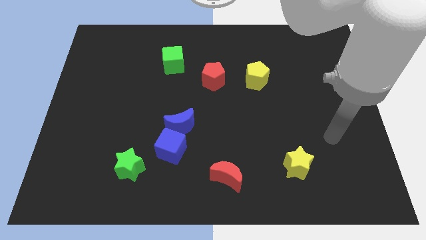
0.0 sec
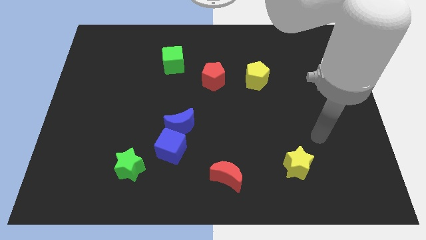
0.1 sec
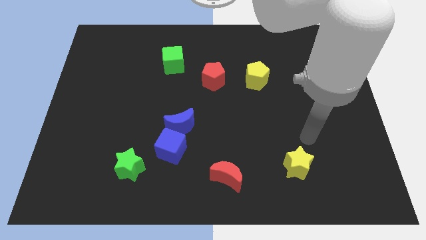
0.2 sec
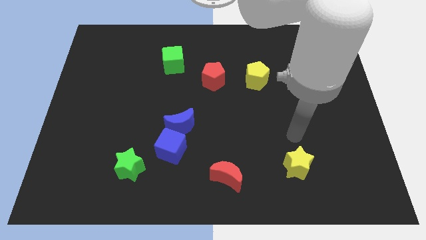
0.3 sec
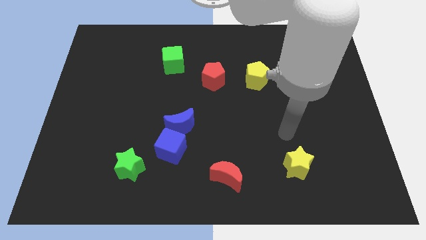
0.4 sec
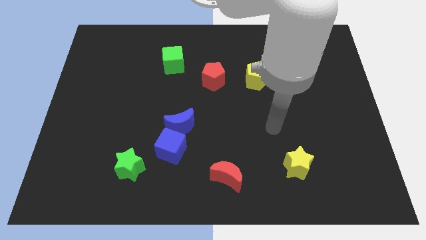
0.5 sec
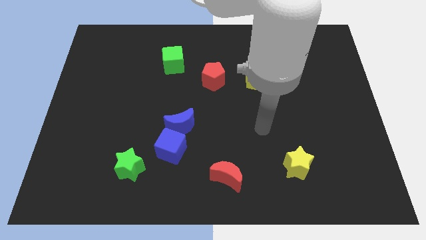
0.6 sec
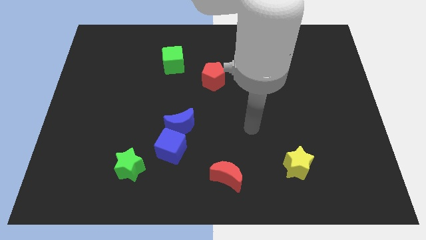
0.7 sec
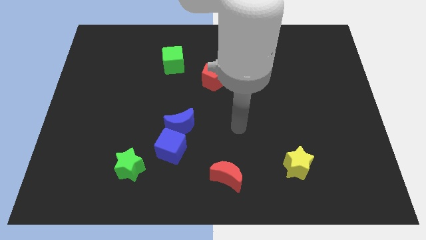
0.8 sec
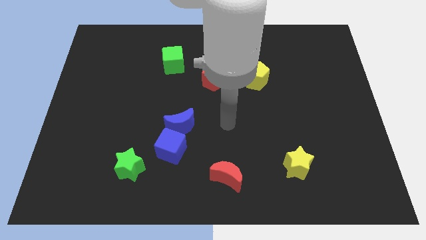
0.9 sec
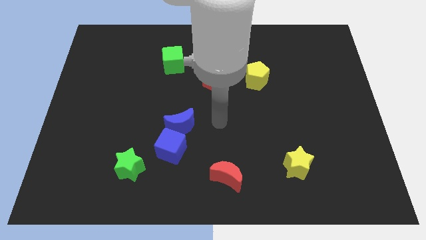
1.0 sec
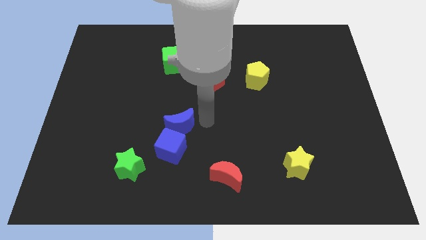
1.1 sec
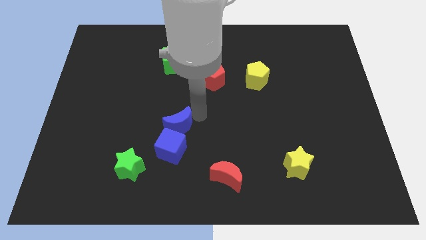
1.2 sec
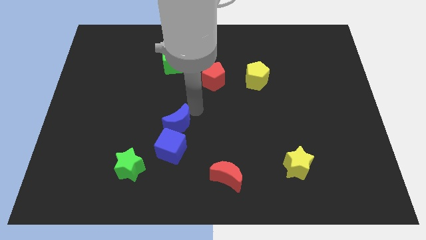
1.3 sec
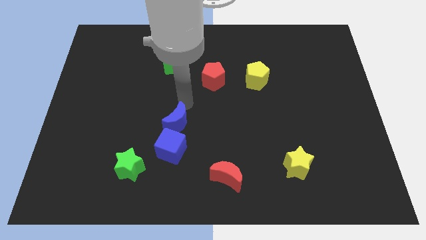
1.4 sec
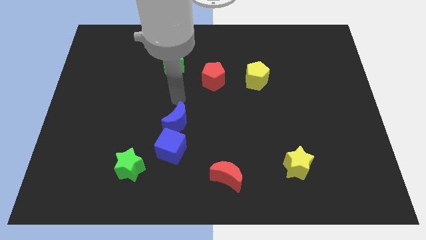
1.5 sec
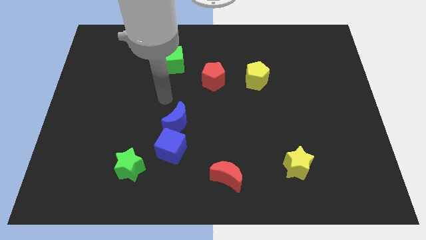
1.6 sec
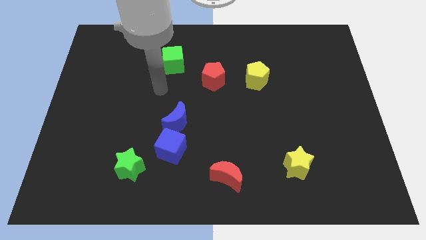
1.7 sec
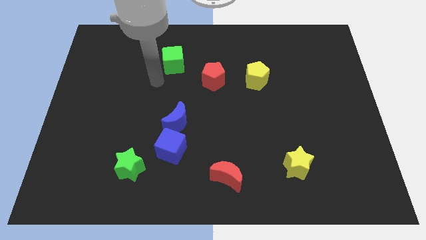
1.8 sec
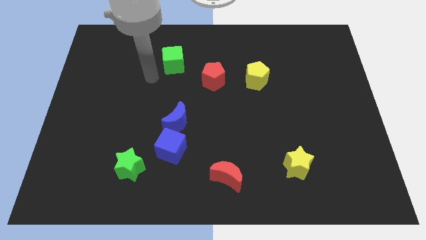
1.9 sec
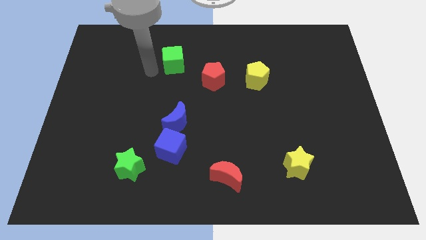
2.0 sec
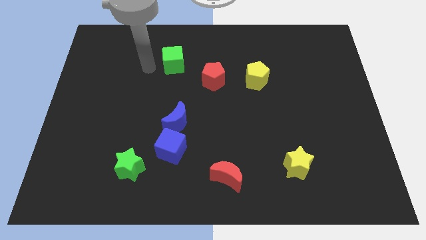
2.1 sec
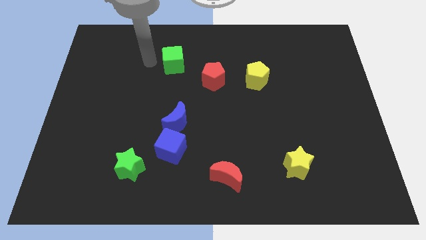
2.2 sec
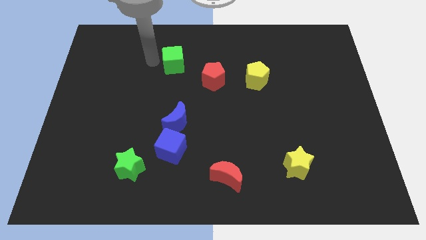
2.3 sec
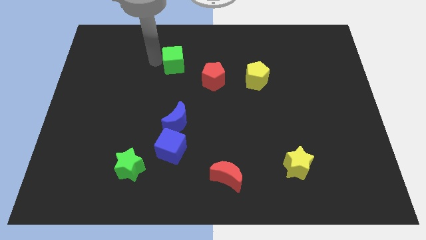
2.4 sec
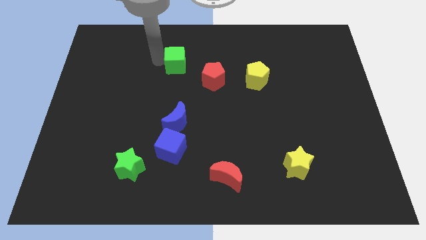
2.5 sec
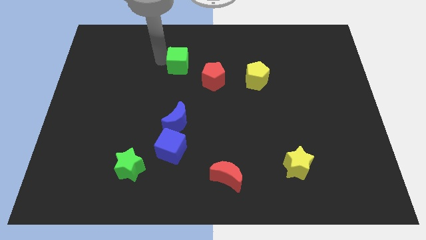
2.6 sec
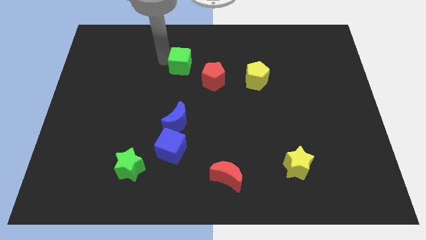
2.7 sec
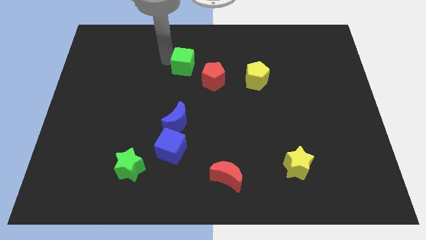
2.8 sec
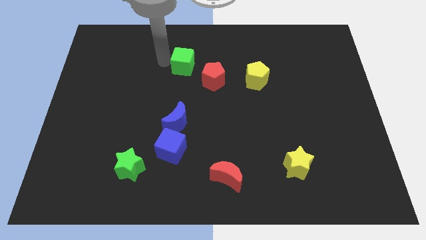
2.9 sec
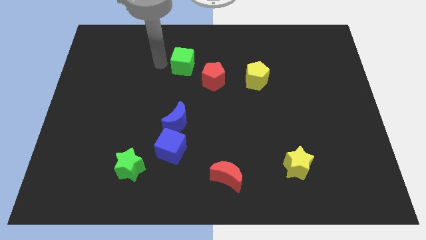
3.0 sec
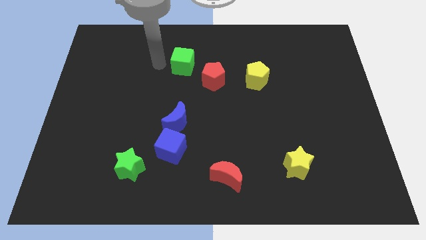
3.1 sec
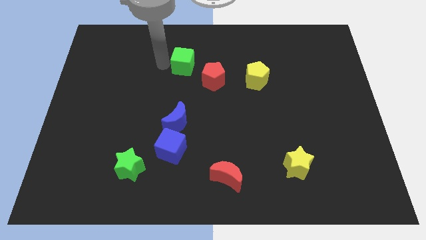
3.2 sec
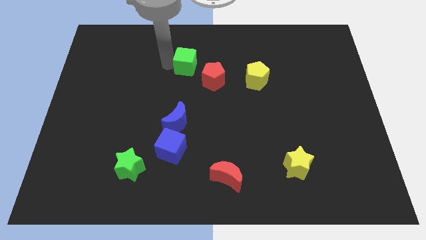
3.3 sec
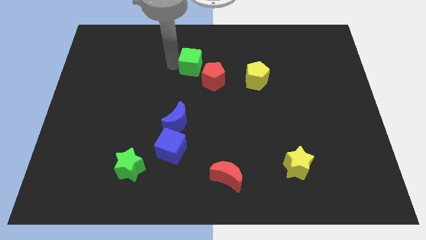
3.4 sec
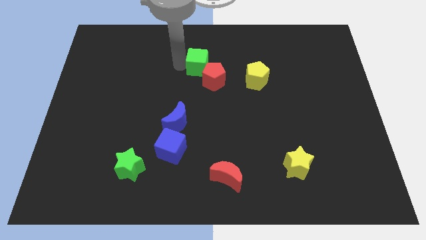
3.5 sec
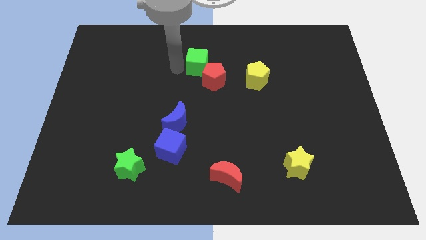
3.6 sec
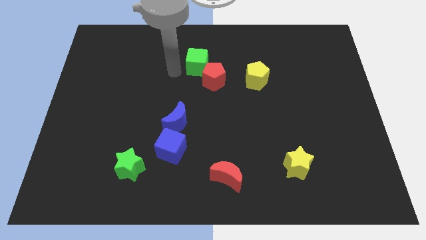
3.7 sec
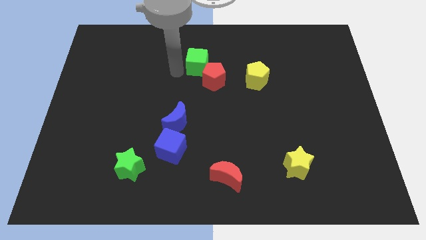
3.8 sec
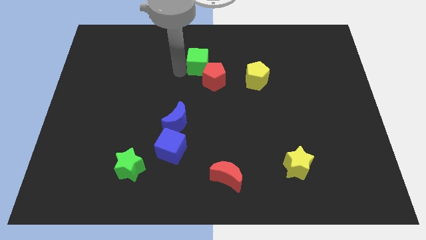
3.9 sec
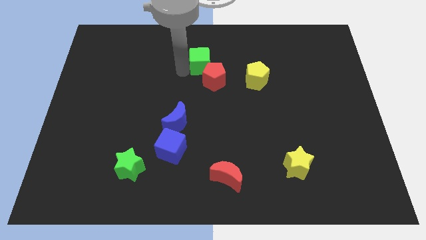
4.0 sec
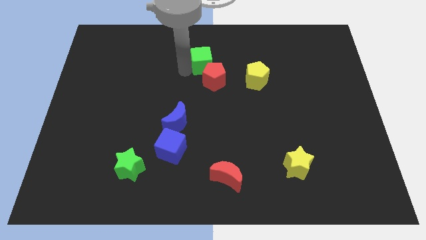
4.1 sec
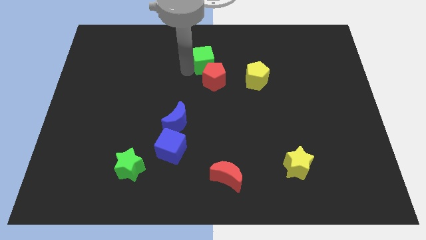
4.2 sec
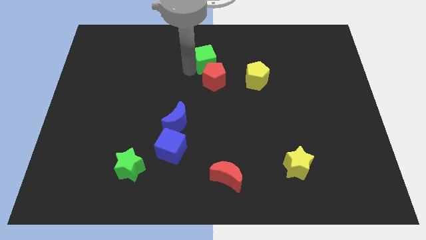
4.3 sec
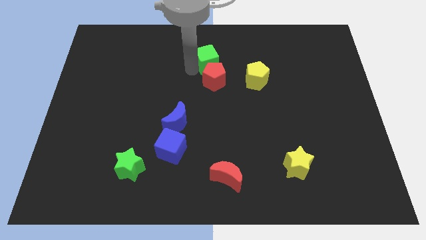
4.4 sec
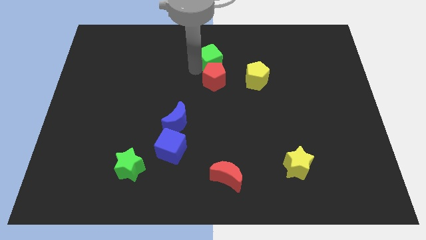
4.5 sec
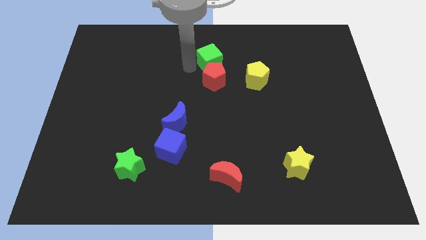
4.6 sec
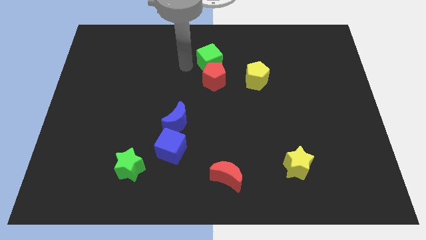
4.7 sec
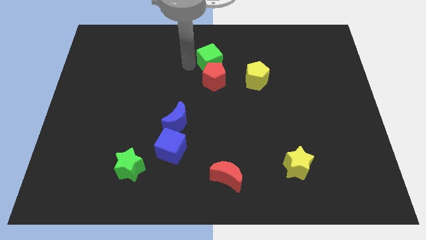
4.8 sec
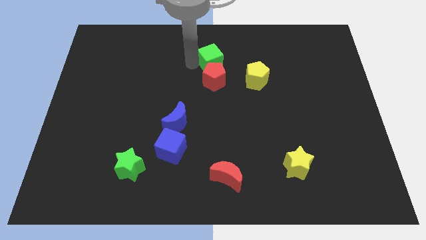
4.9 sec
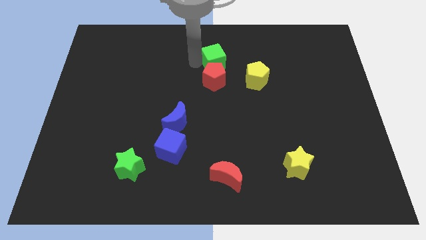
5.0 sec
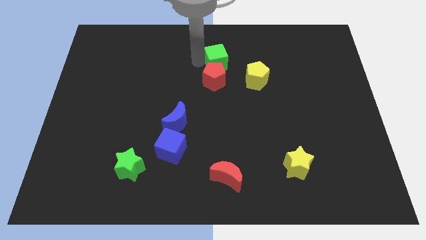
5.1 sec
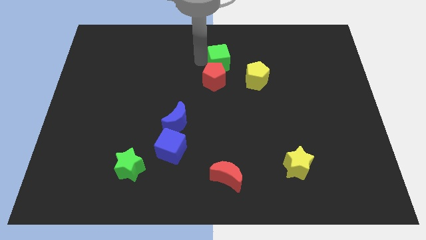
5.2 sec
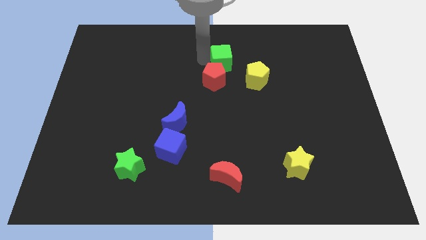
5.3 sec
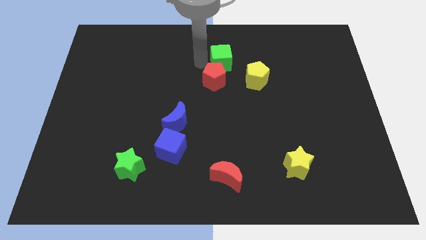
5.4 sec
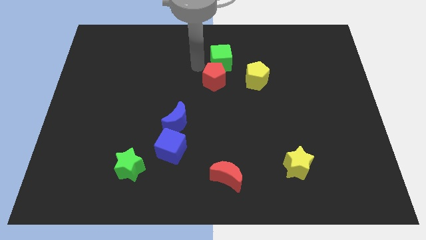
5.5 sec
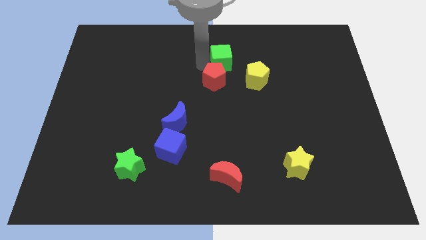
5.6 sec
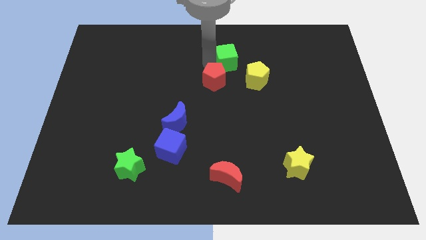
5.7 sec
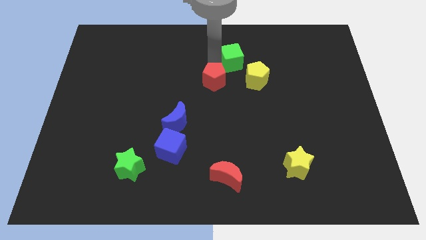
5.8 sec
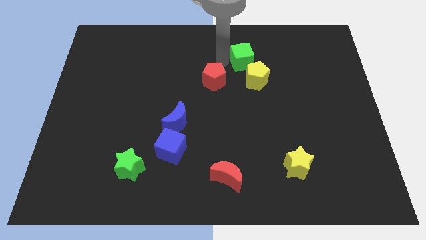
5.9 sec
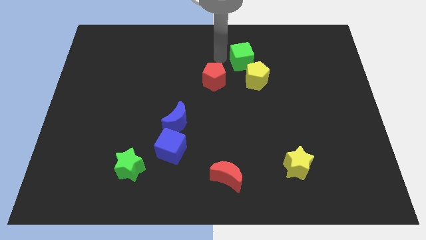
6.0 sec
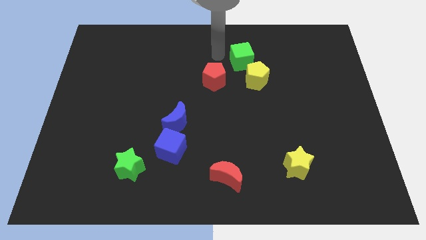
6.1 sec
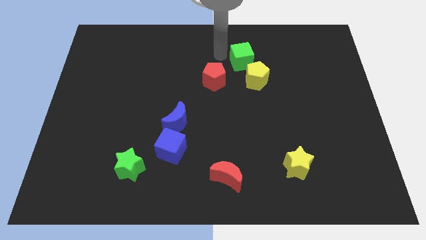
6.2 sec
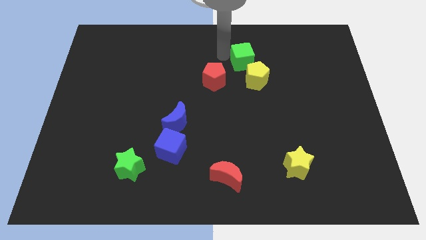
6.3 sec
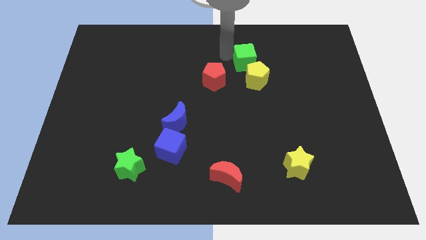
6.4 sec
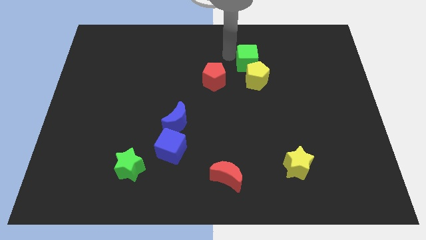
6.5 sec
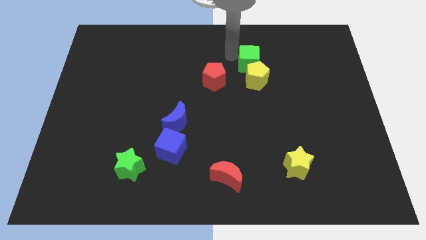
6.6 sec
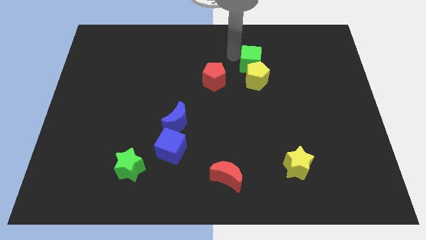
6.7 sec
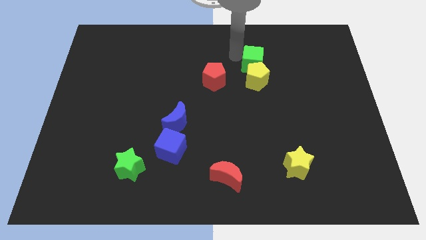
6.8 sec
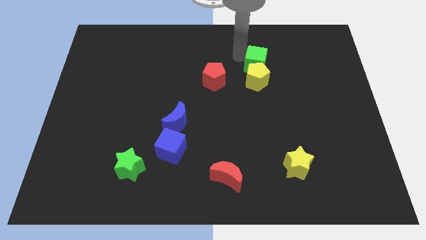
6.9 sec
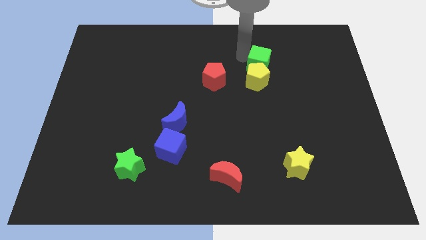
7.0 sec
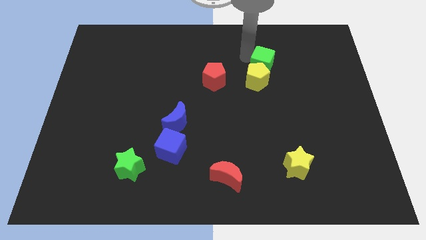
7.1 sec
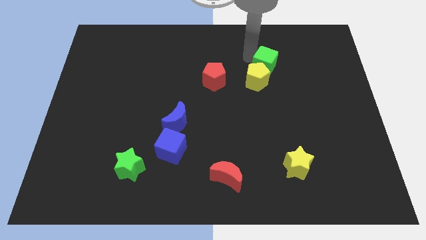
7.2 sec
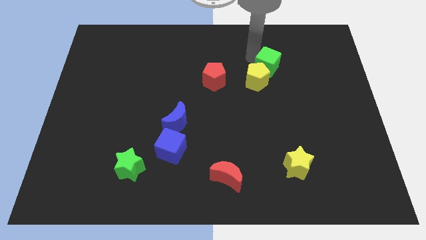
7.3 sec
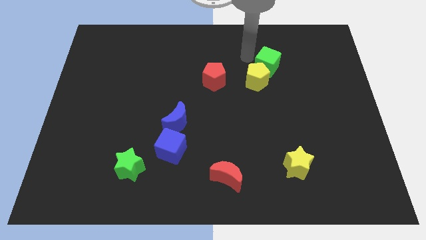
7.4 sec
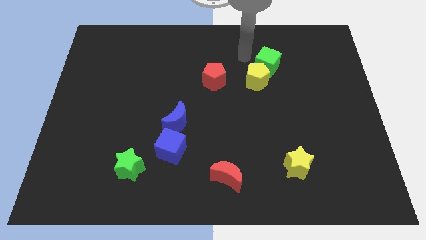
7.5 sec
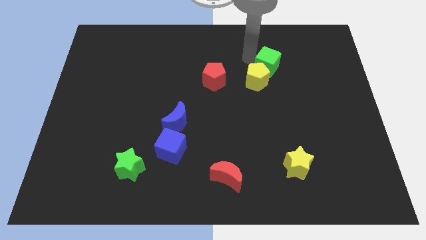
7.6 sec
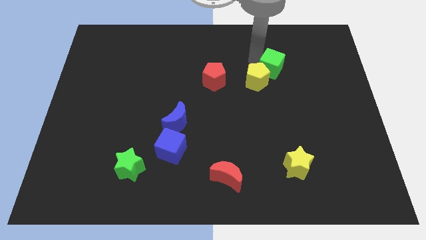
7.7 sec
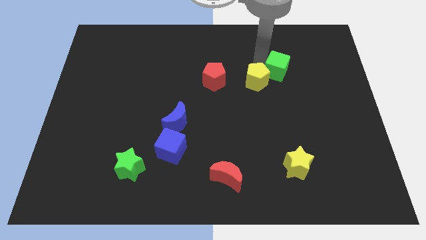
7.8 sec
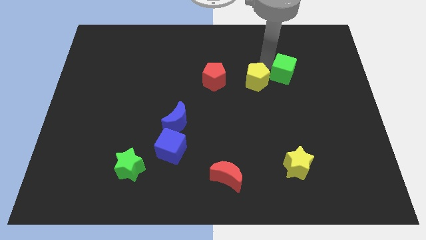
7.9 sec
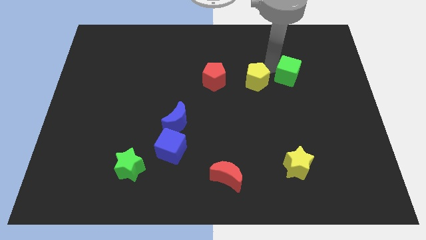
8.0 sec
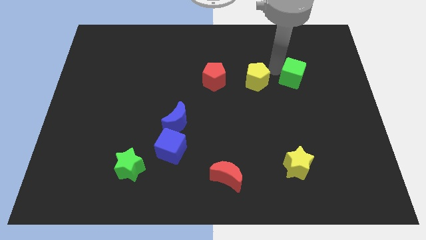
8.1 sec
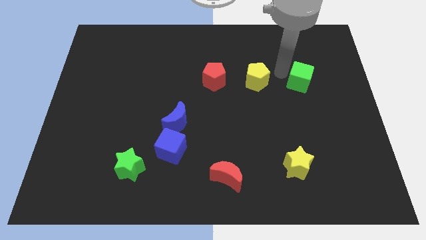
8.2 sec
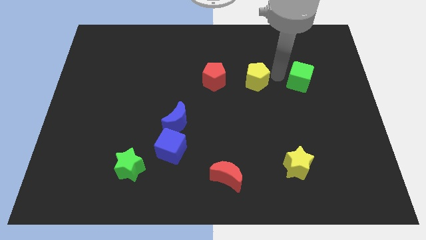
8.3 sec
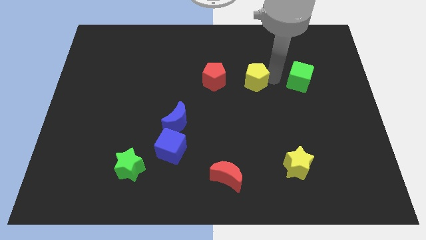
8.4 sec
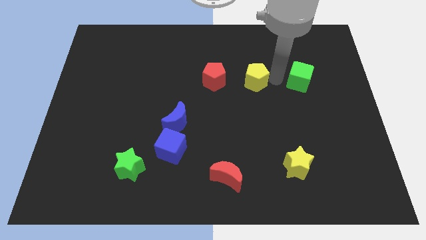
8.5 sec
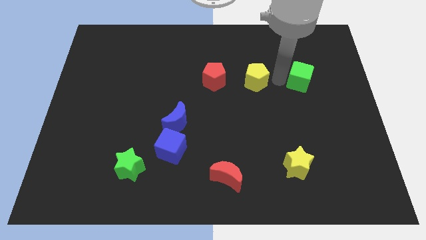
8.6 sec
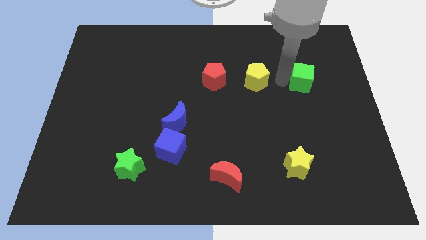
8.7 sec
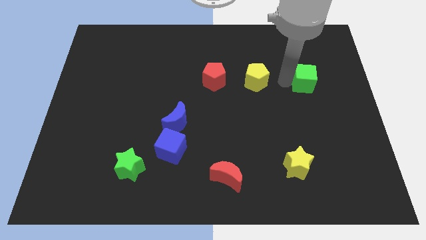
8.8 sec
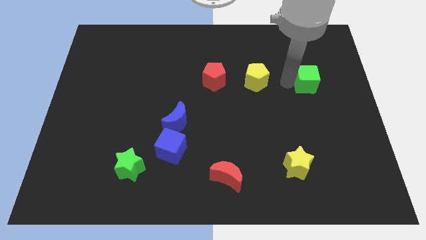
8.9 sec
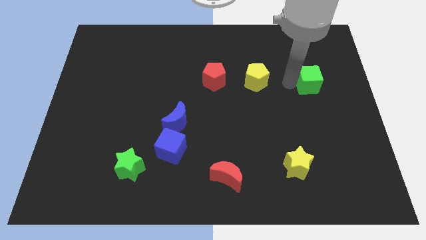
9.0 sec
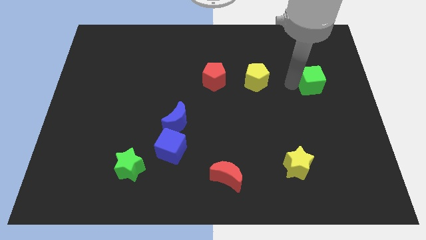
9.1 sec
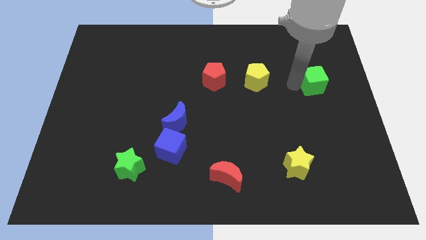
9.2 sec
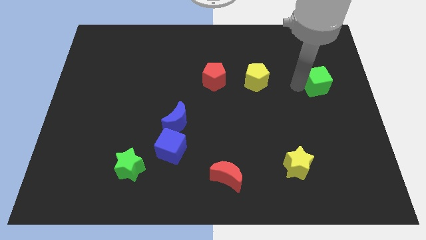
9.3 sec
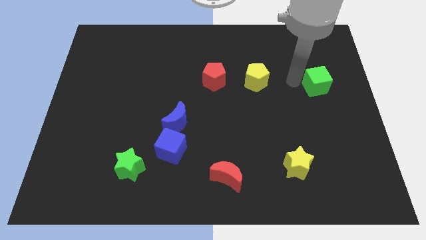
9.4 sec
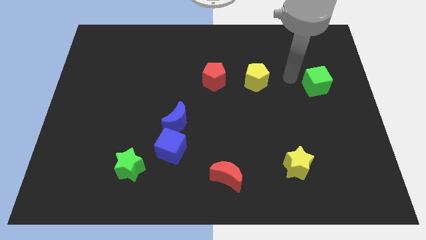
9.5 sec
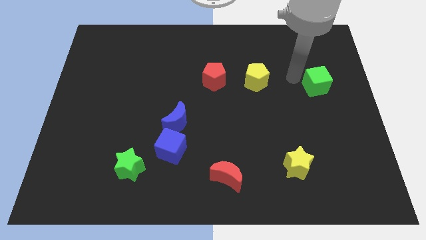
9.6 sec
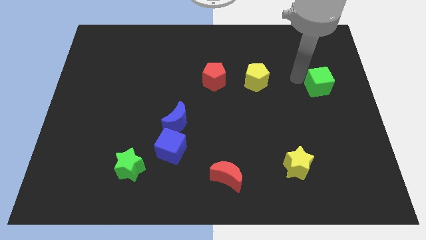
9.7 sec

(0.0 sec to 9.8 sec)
push the green cube to the center right
